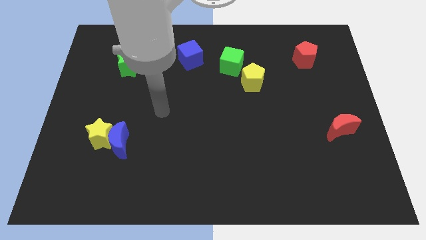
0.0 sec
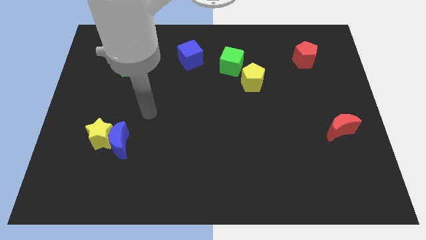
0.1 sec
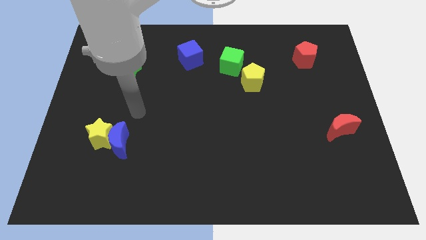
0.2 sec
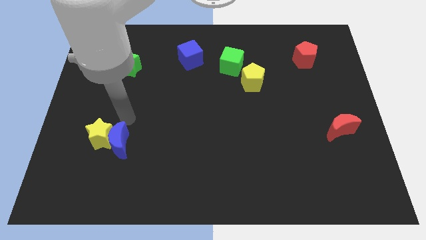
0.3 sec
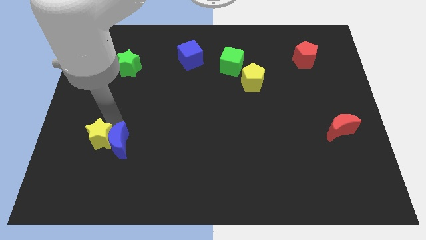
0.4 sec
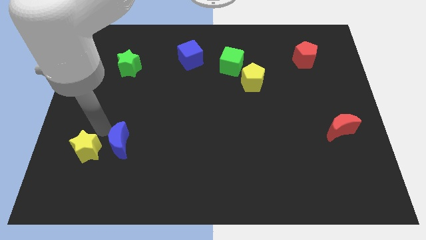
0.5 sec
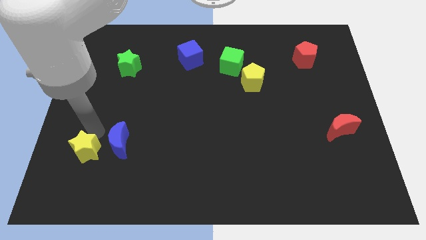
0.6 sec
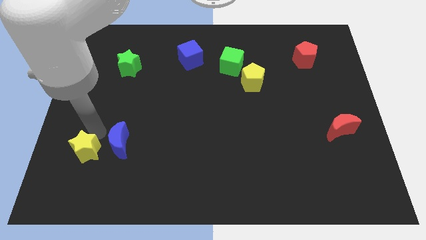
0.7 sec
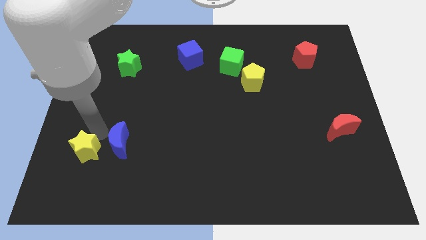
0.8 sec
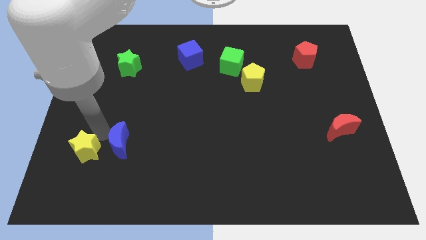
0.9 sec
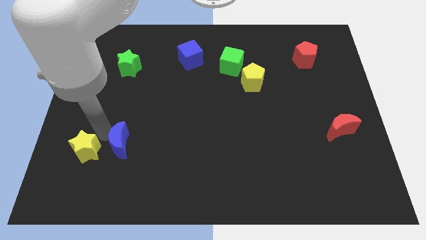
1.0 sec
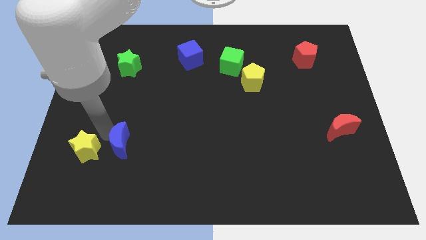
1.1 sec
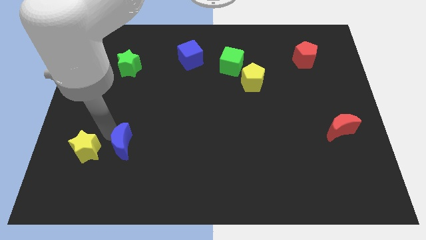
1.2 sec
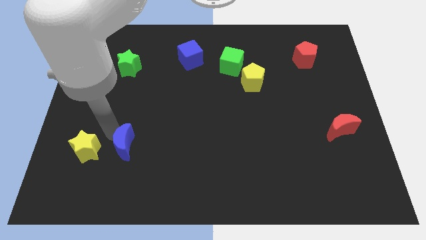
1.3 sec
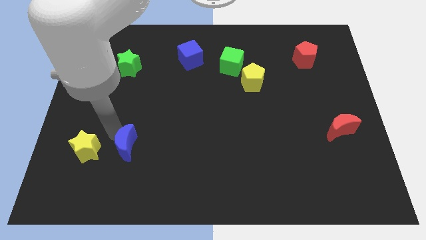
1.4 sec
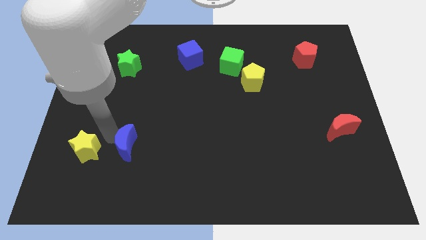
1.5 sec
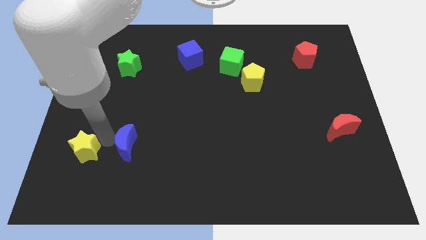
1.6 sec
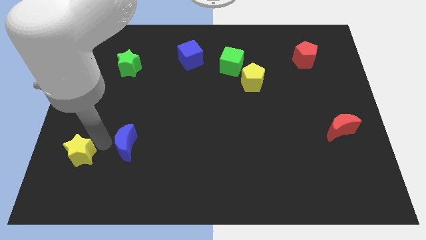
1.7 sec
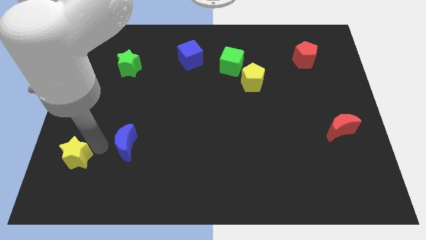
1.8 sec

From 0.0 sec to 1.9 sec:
separate the blue moon from the yellow star

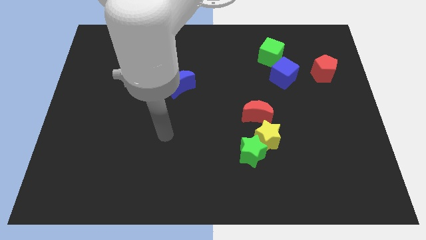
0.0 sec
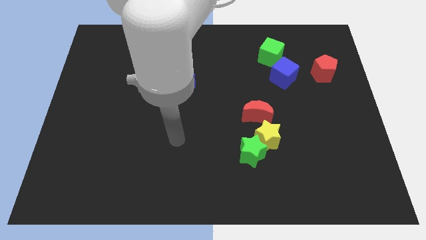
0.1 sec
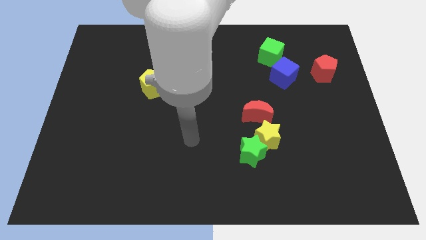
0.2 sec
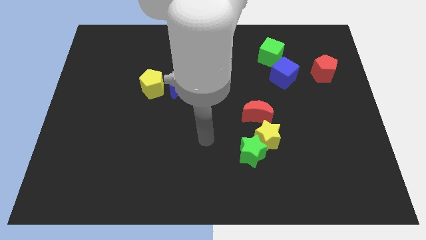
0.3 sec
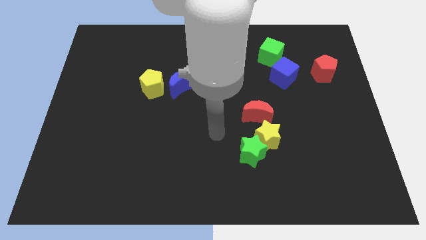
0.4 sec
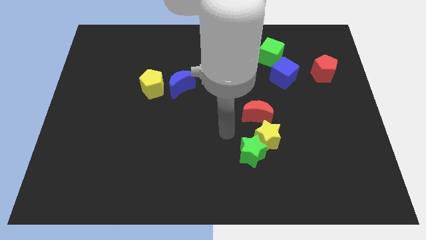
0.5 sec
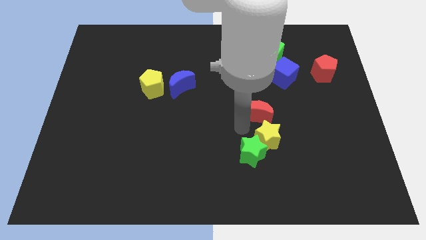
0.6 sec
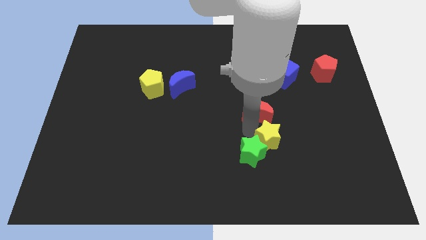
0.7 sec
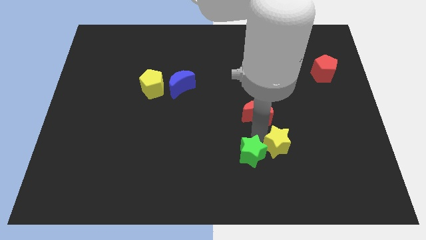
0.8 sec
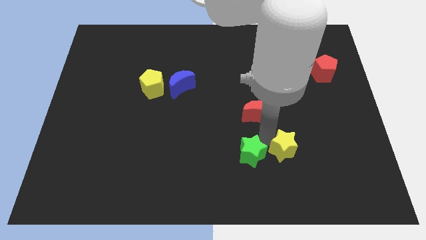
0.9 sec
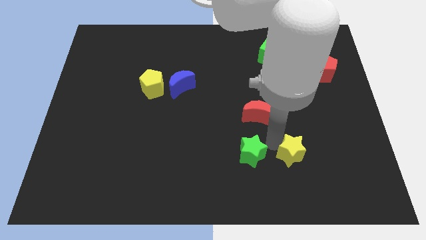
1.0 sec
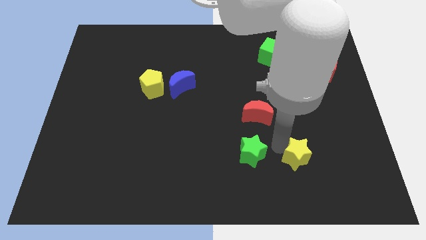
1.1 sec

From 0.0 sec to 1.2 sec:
separate the yellow star from the green star and red moon

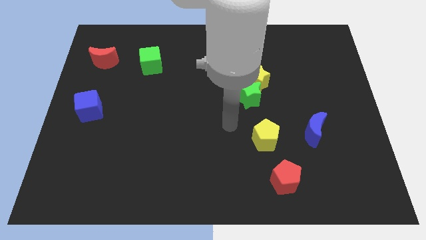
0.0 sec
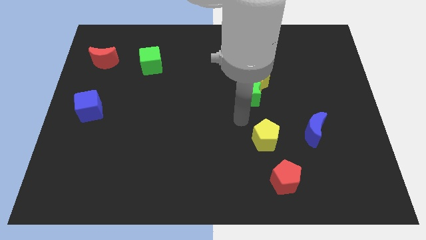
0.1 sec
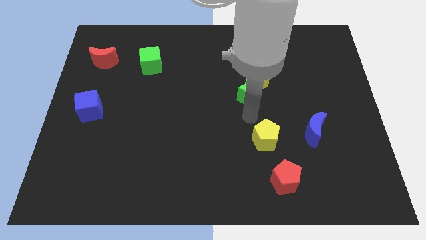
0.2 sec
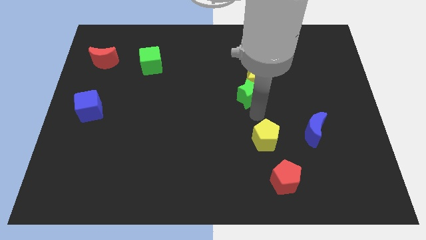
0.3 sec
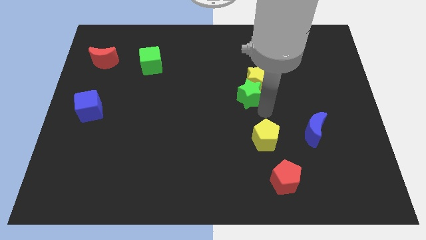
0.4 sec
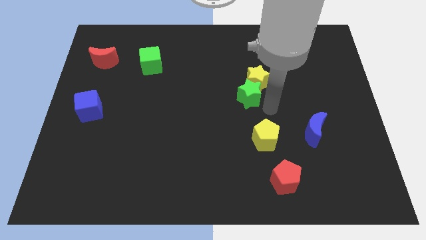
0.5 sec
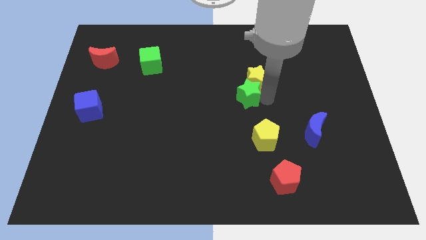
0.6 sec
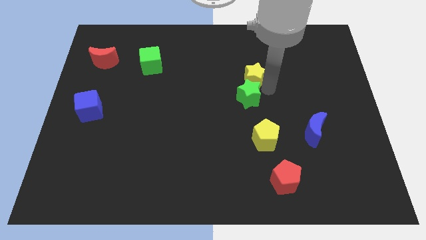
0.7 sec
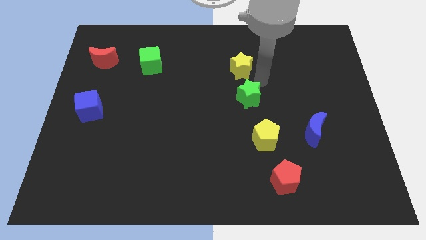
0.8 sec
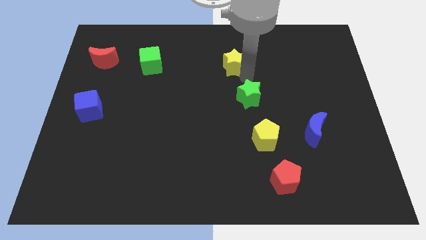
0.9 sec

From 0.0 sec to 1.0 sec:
pull the green star apart from the yellow star

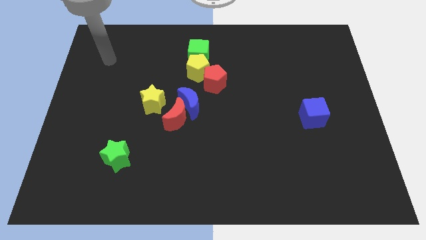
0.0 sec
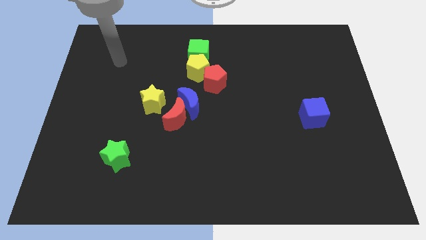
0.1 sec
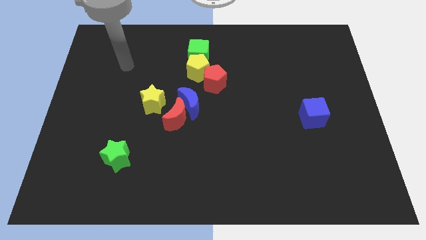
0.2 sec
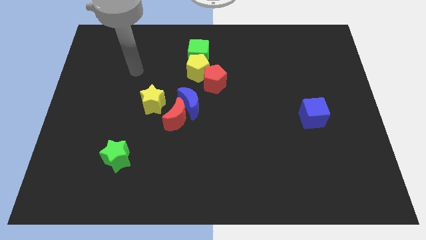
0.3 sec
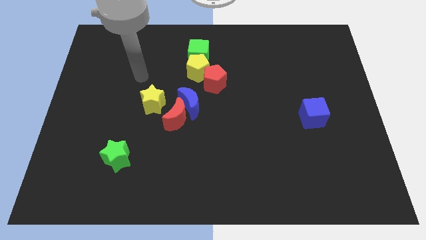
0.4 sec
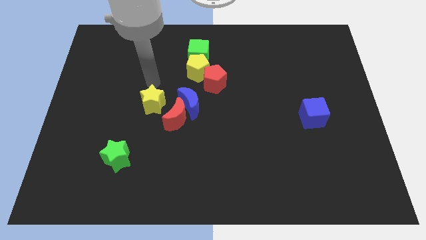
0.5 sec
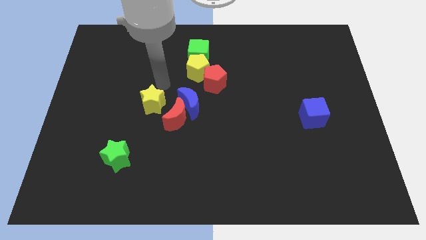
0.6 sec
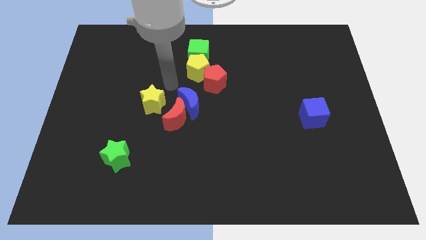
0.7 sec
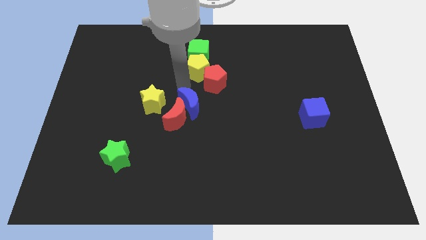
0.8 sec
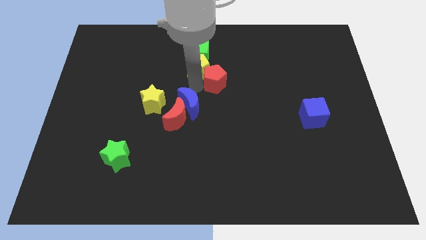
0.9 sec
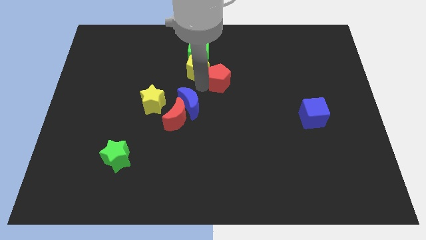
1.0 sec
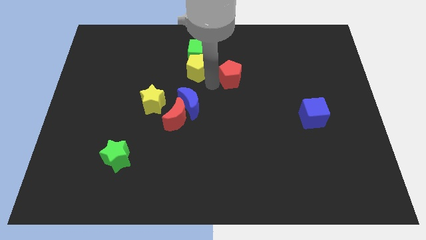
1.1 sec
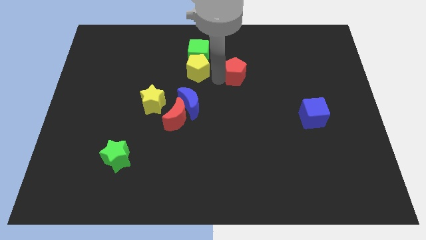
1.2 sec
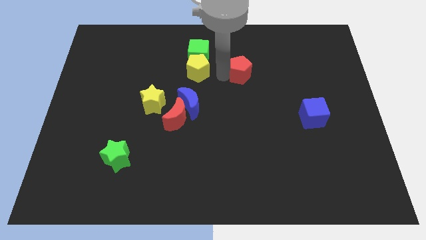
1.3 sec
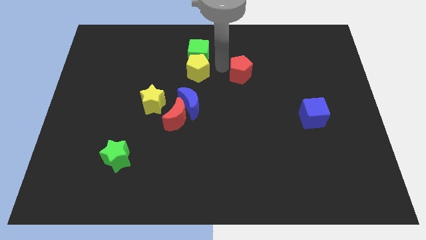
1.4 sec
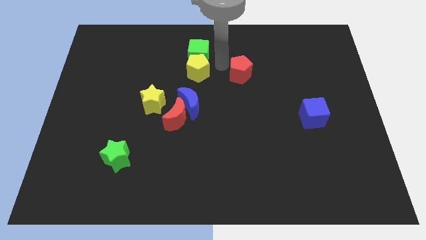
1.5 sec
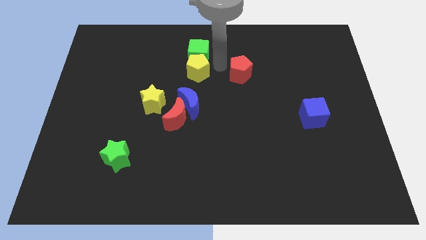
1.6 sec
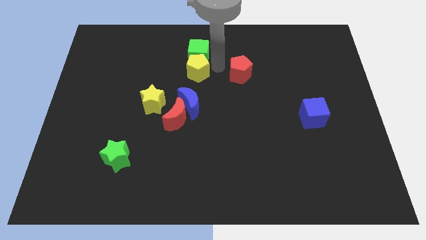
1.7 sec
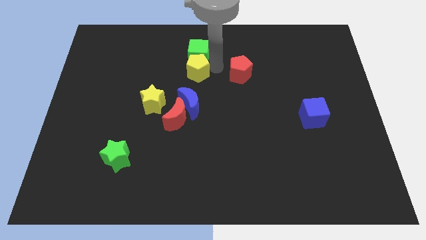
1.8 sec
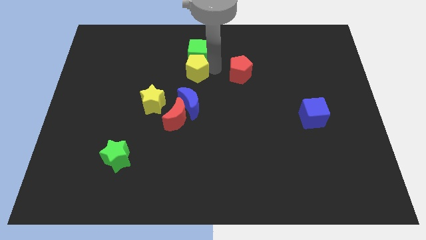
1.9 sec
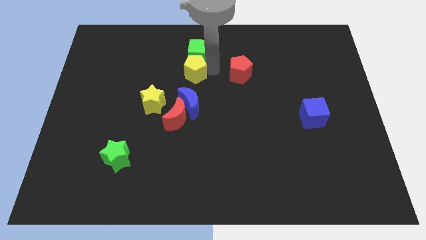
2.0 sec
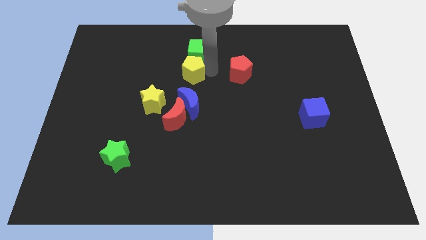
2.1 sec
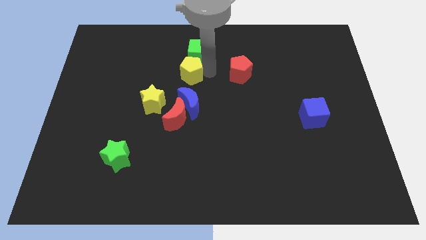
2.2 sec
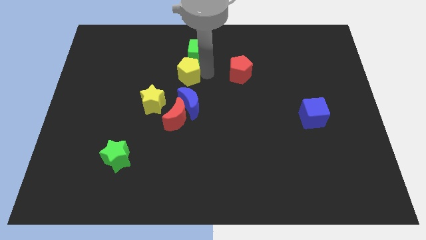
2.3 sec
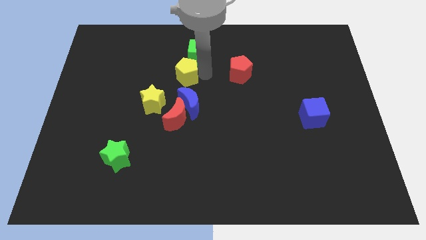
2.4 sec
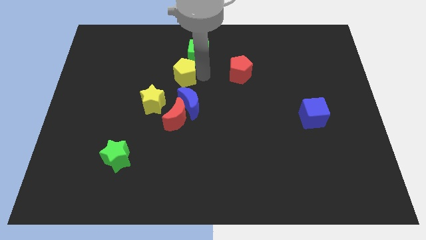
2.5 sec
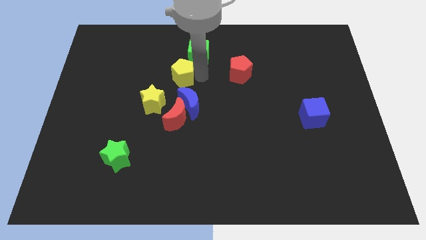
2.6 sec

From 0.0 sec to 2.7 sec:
separate the yellow pentagon from the red pentagon and green cube

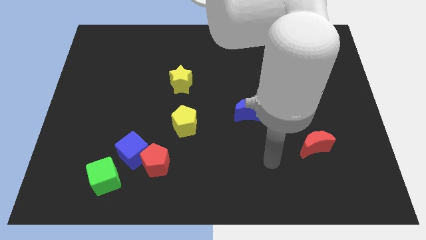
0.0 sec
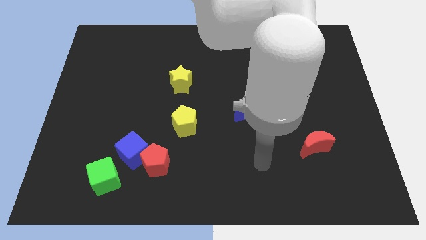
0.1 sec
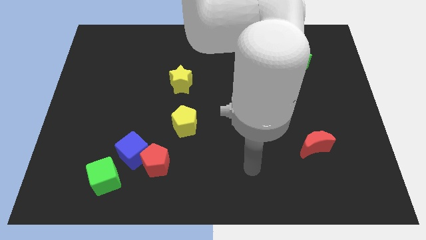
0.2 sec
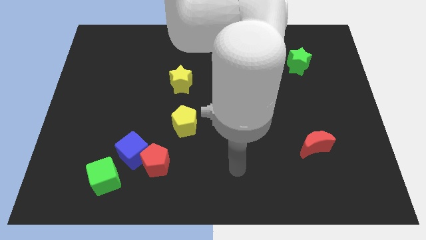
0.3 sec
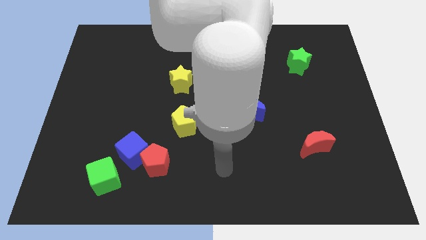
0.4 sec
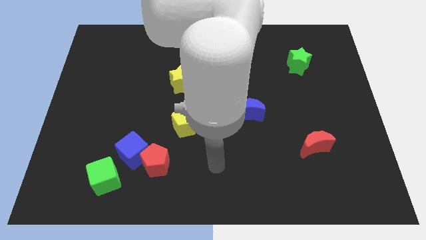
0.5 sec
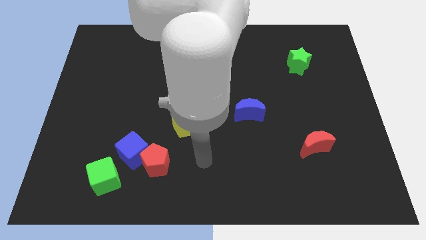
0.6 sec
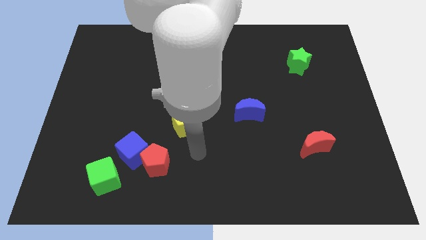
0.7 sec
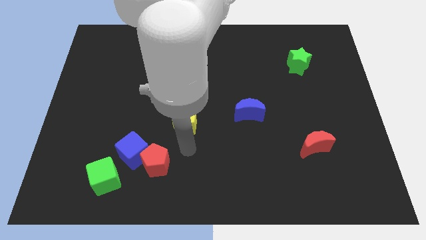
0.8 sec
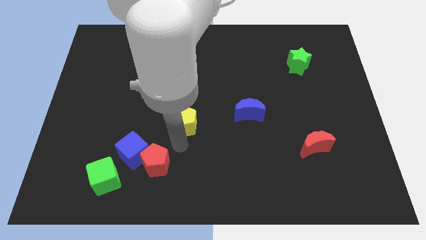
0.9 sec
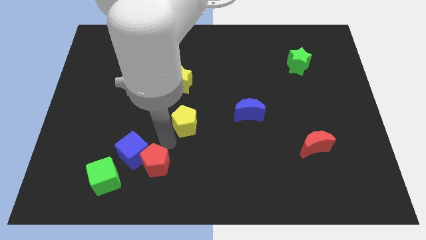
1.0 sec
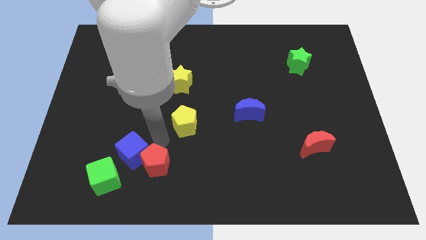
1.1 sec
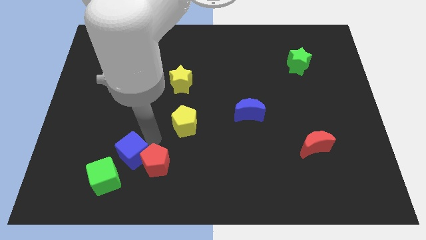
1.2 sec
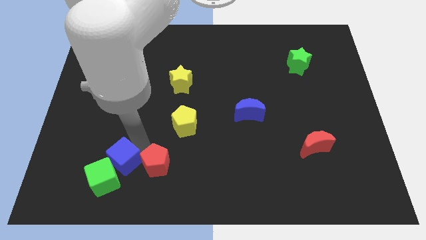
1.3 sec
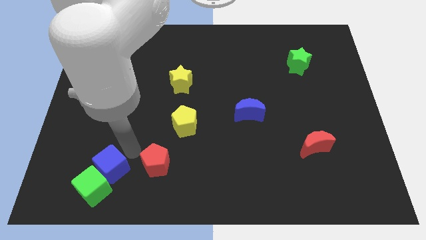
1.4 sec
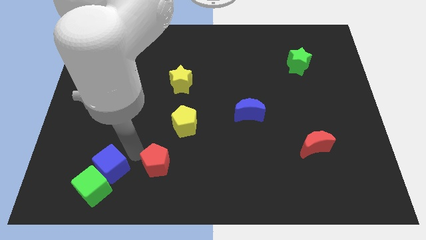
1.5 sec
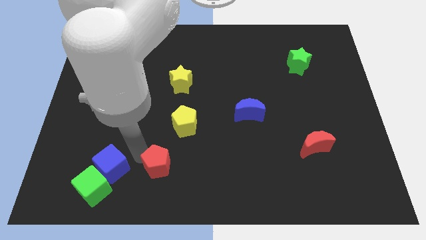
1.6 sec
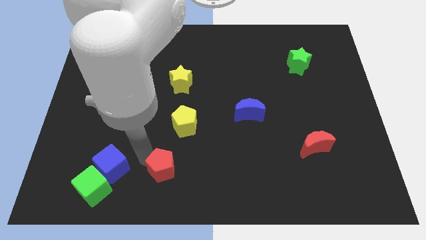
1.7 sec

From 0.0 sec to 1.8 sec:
pull the red pentagon apart from the blue cube

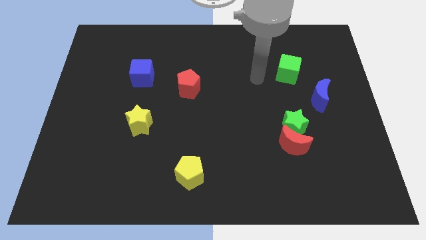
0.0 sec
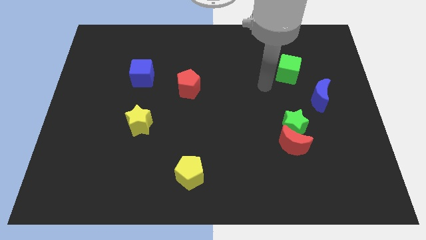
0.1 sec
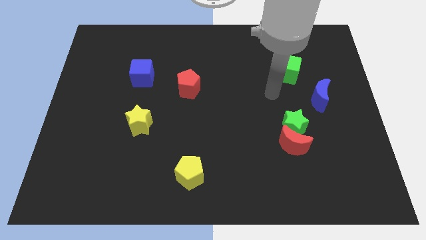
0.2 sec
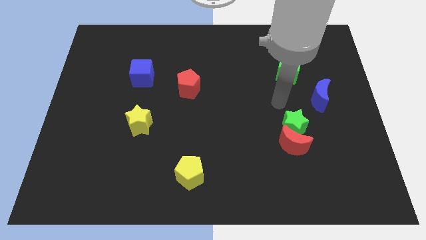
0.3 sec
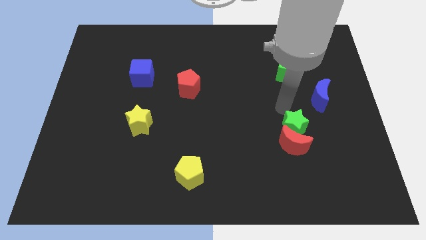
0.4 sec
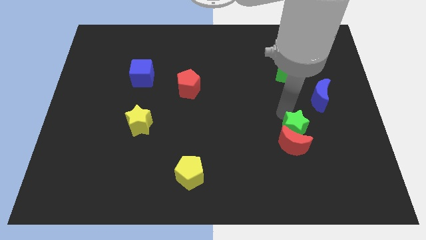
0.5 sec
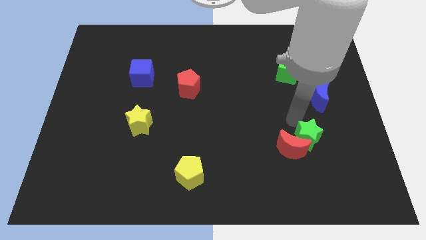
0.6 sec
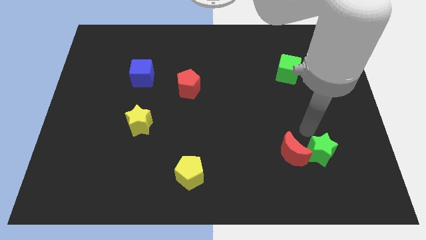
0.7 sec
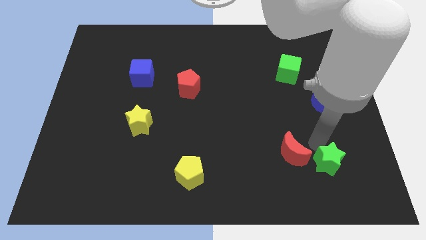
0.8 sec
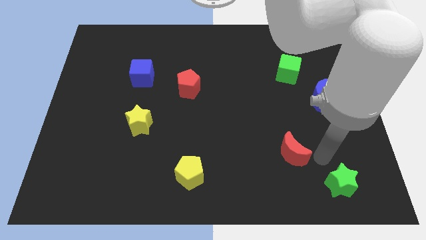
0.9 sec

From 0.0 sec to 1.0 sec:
separate the red moon from the green star
